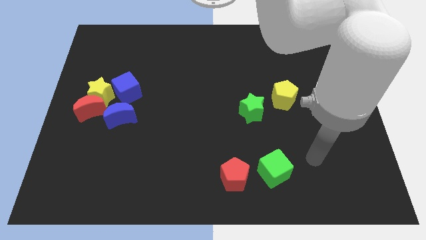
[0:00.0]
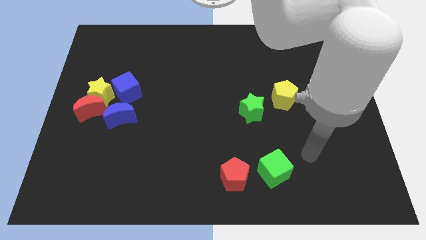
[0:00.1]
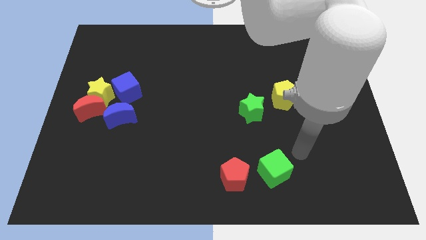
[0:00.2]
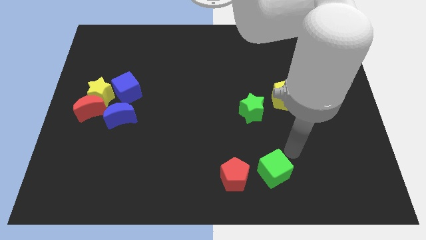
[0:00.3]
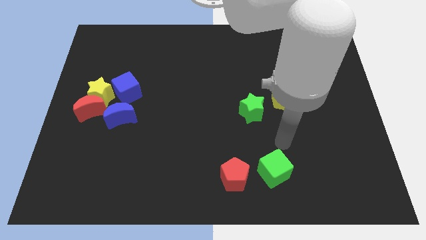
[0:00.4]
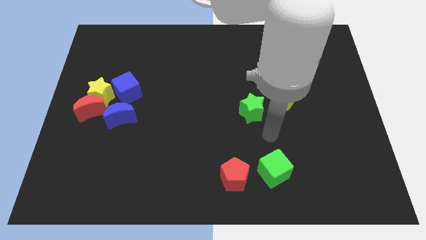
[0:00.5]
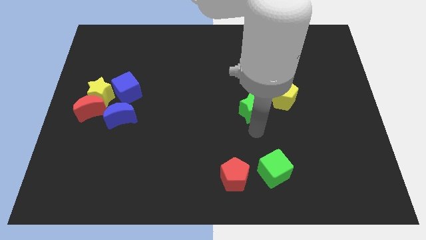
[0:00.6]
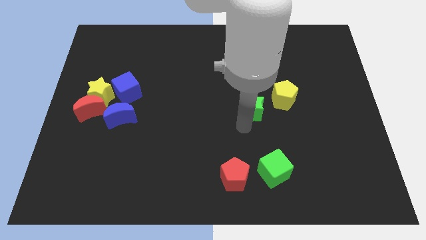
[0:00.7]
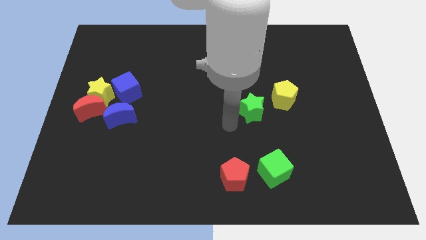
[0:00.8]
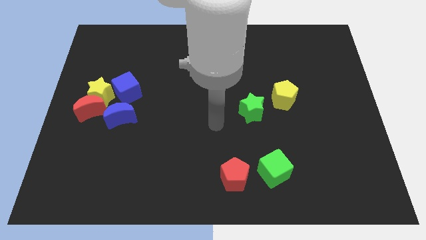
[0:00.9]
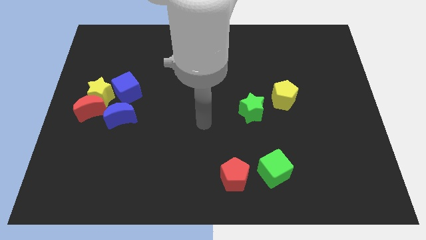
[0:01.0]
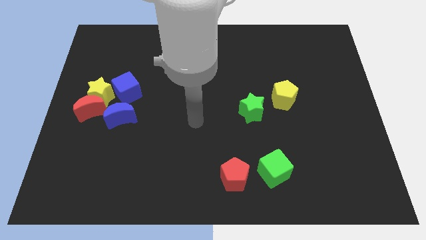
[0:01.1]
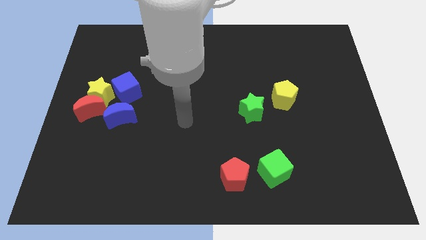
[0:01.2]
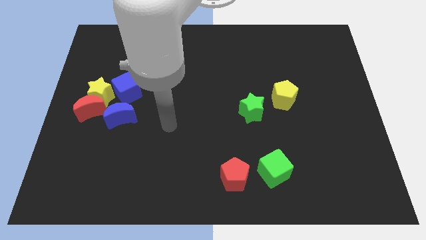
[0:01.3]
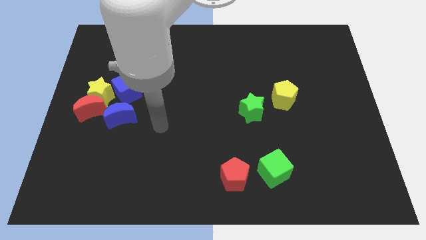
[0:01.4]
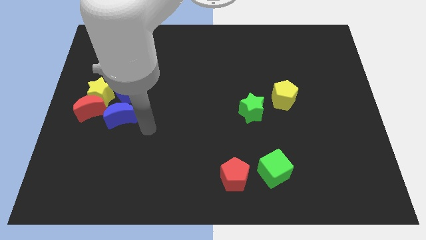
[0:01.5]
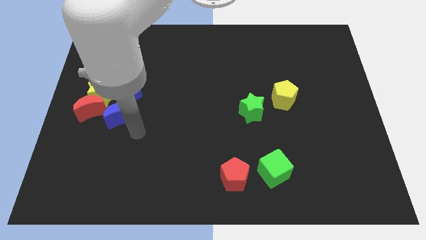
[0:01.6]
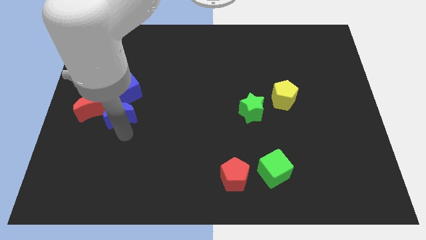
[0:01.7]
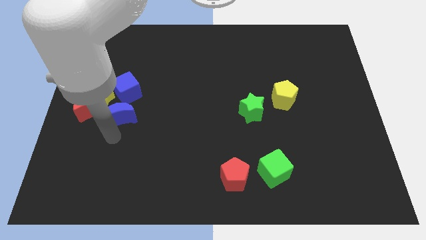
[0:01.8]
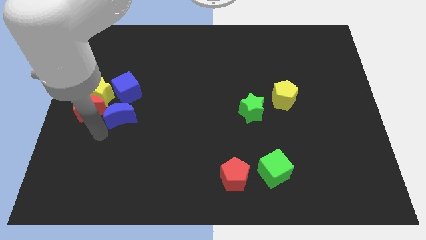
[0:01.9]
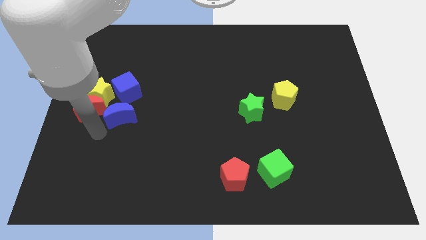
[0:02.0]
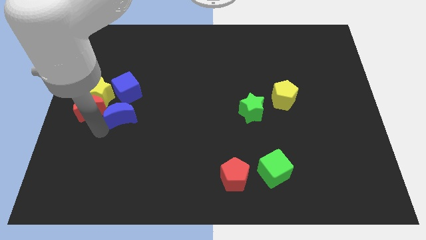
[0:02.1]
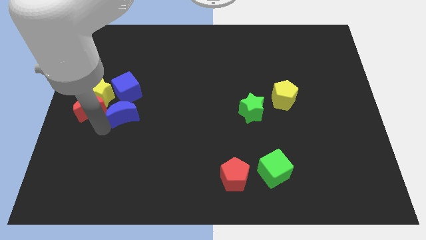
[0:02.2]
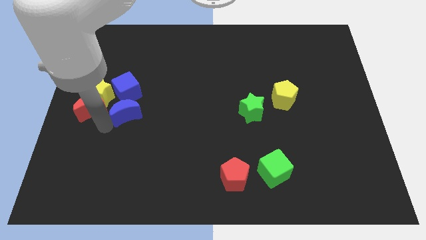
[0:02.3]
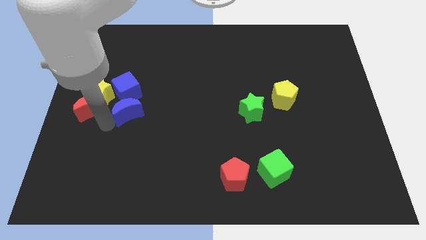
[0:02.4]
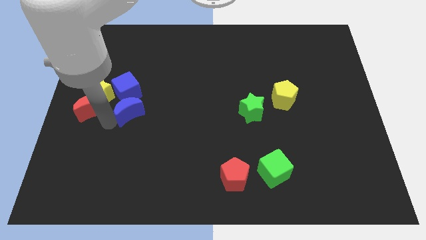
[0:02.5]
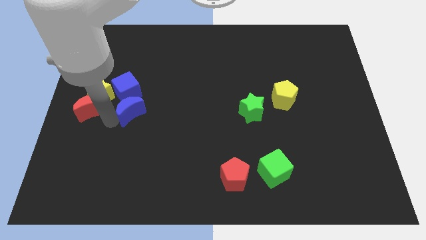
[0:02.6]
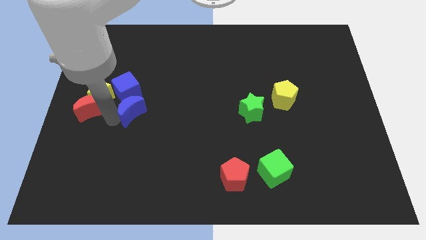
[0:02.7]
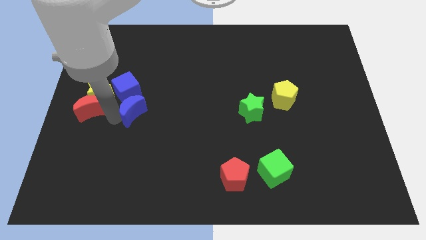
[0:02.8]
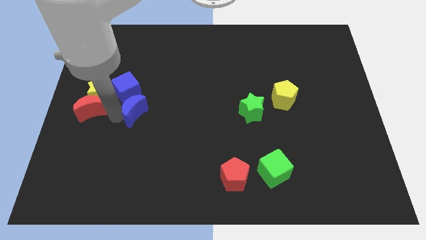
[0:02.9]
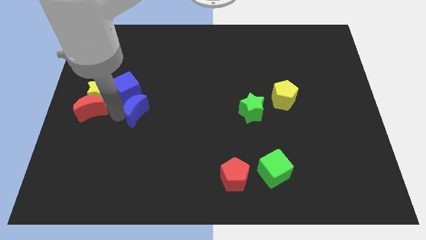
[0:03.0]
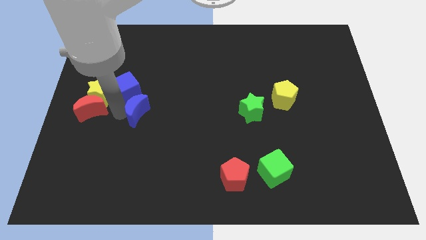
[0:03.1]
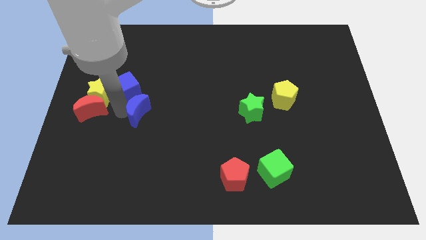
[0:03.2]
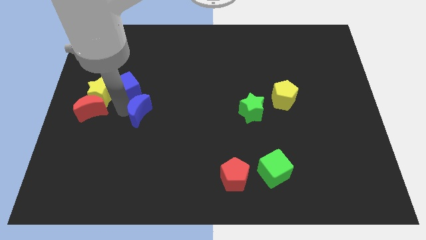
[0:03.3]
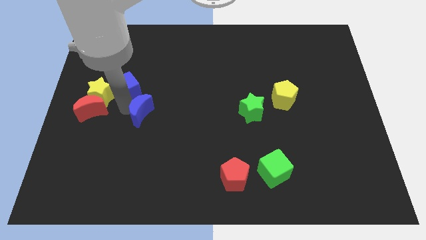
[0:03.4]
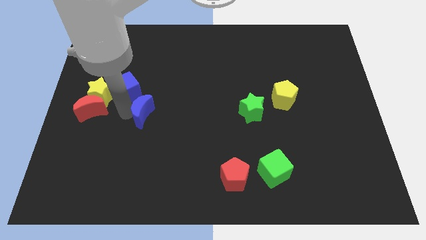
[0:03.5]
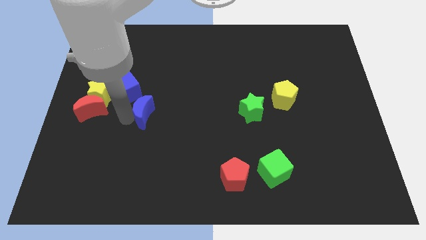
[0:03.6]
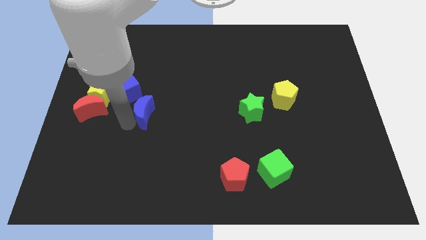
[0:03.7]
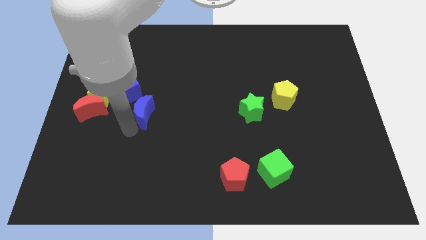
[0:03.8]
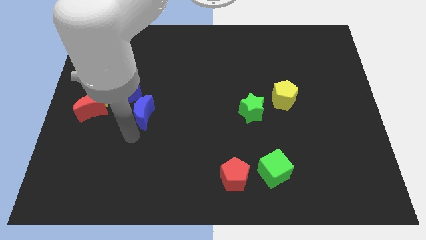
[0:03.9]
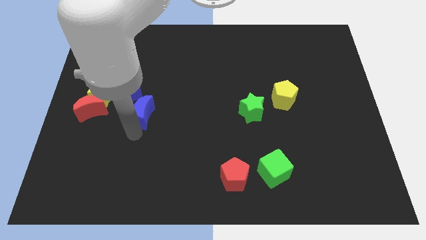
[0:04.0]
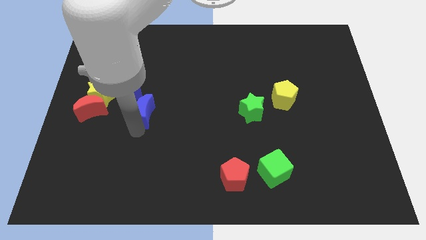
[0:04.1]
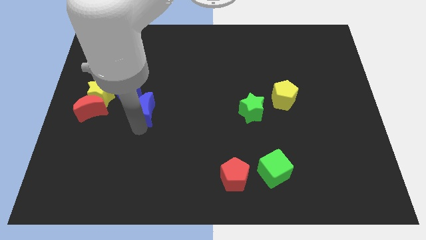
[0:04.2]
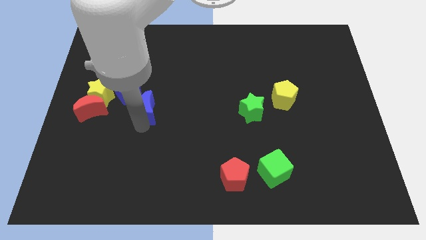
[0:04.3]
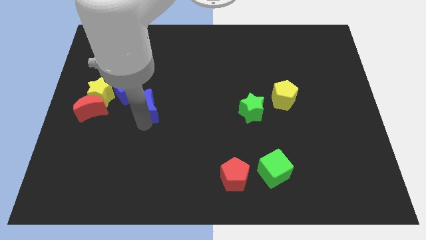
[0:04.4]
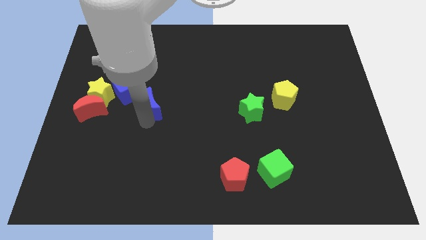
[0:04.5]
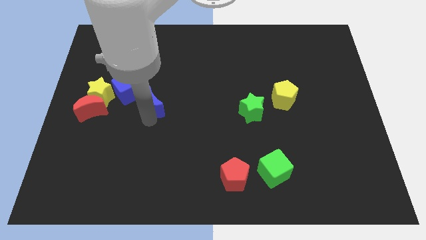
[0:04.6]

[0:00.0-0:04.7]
move the blue moon up and to the right slightly

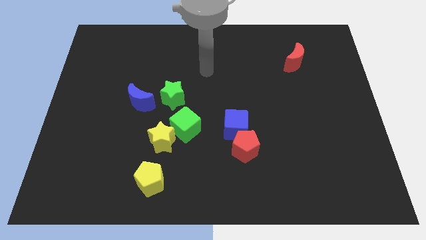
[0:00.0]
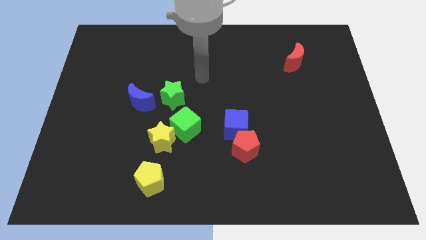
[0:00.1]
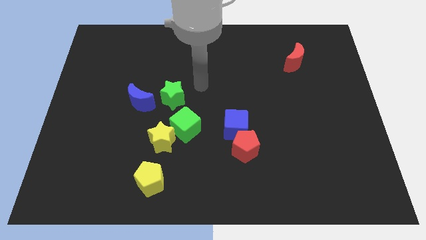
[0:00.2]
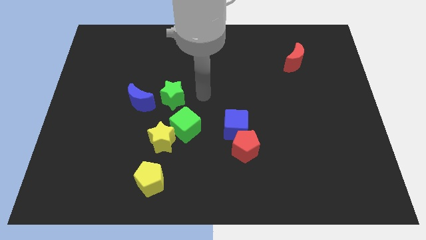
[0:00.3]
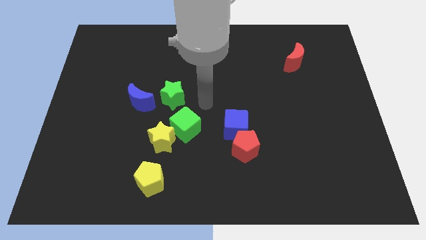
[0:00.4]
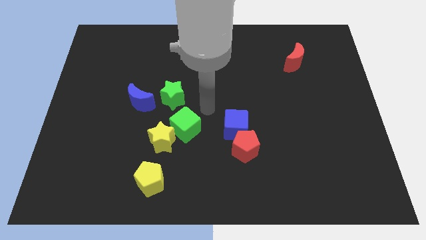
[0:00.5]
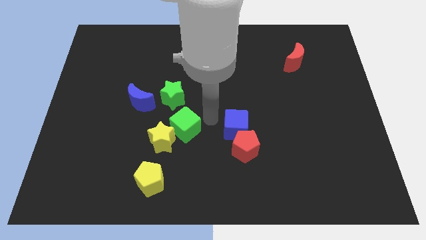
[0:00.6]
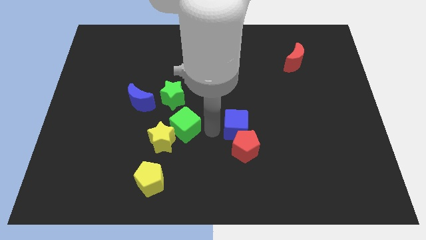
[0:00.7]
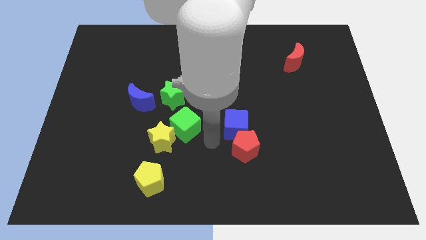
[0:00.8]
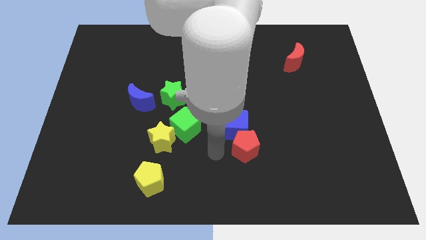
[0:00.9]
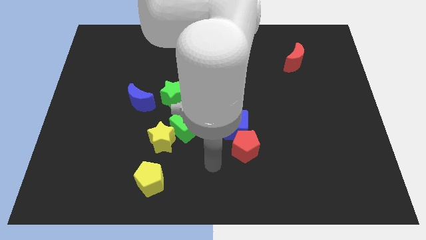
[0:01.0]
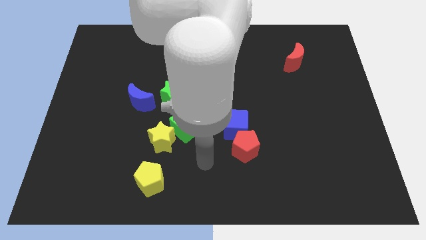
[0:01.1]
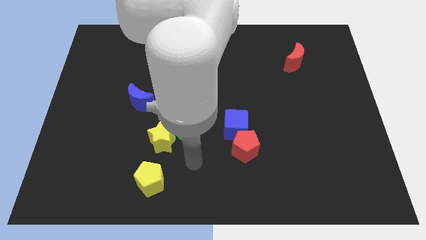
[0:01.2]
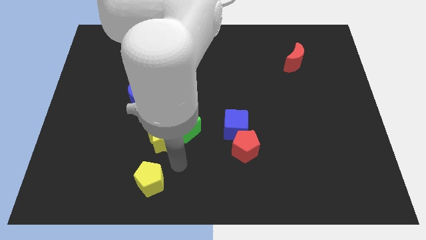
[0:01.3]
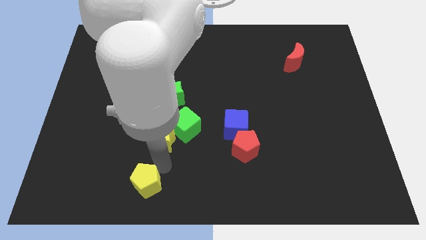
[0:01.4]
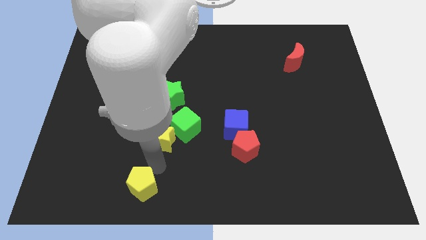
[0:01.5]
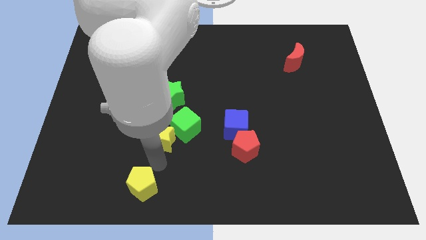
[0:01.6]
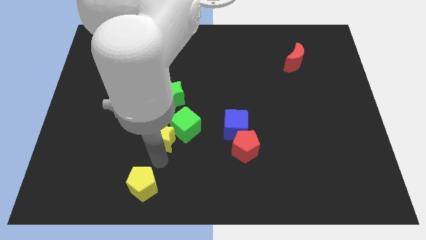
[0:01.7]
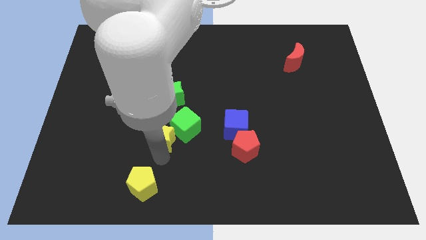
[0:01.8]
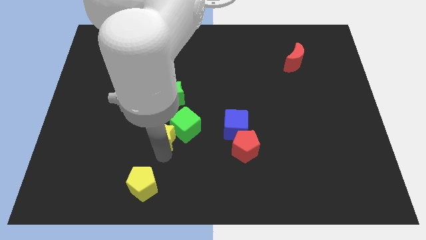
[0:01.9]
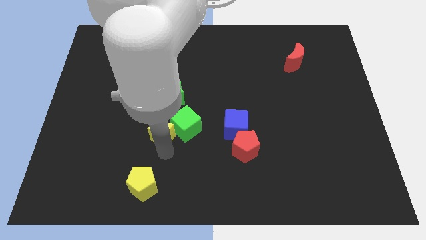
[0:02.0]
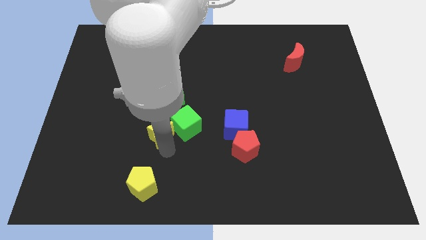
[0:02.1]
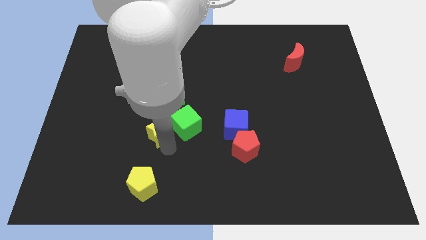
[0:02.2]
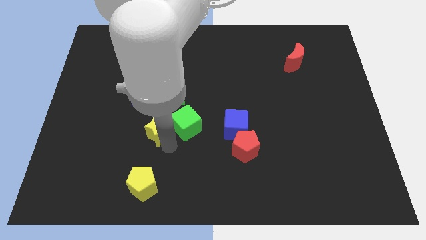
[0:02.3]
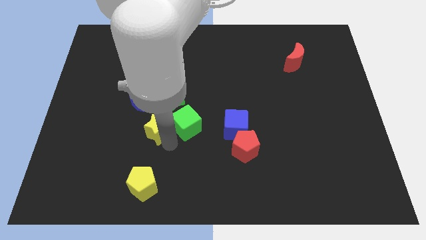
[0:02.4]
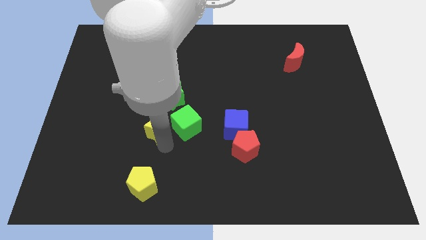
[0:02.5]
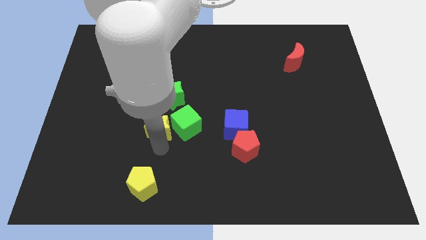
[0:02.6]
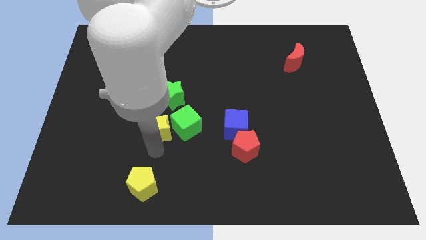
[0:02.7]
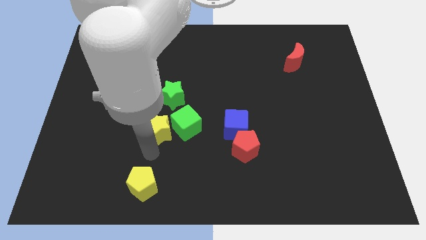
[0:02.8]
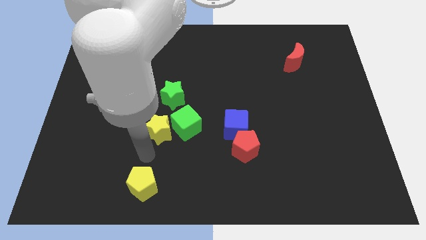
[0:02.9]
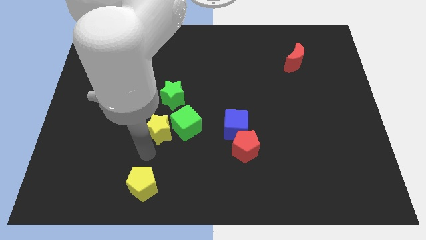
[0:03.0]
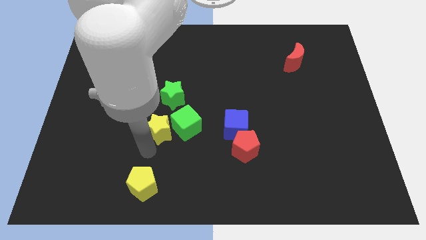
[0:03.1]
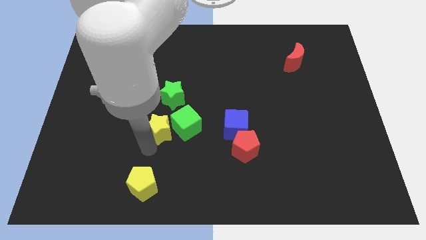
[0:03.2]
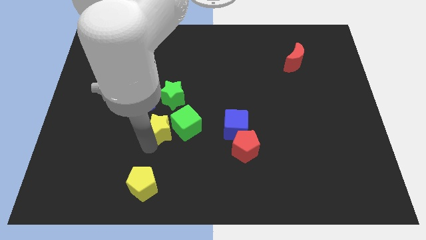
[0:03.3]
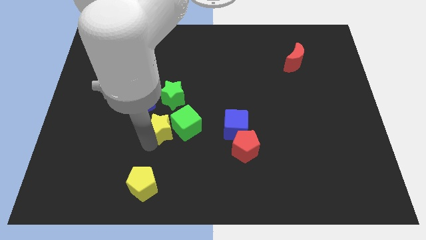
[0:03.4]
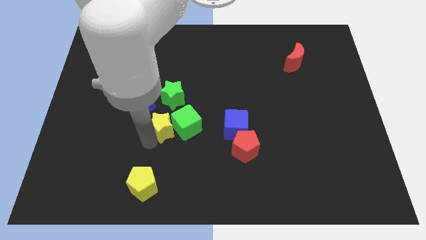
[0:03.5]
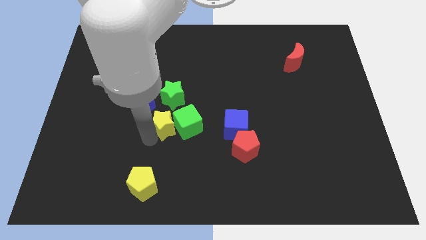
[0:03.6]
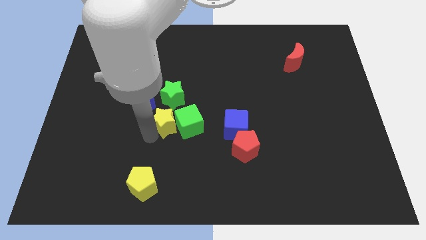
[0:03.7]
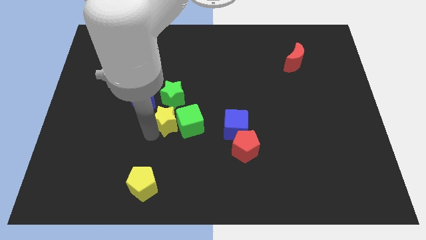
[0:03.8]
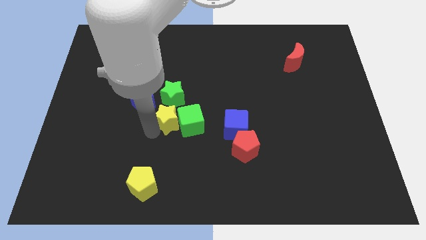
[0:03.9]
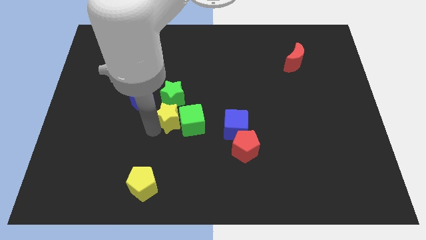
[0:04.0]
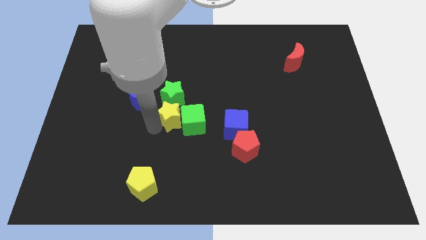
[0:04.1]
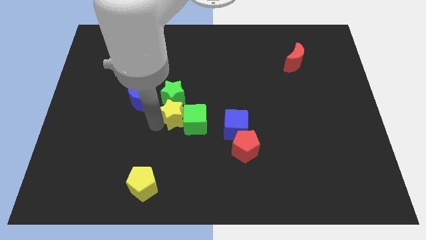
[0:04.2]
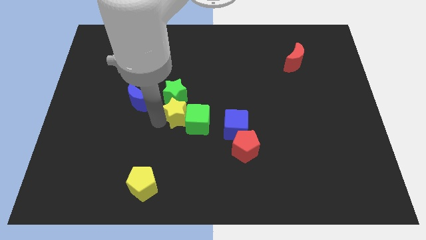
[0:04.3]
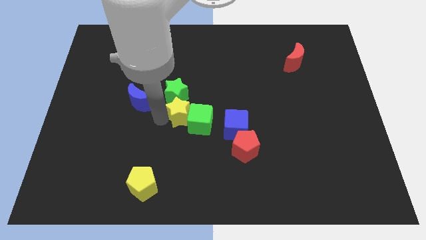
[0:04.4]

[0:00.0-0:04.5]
push the yellow star a little bit diagonally up and to the right
